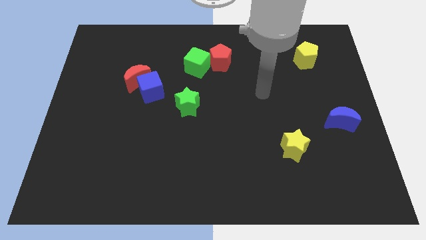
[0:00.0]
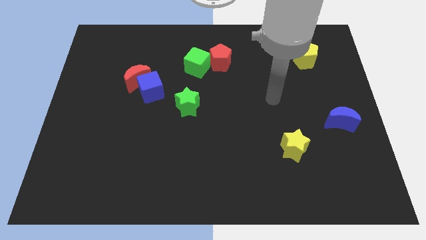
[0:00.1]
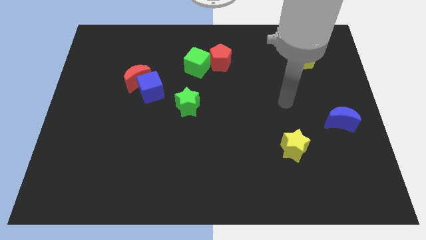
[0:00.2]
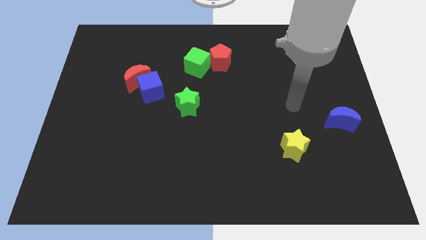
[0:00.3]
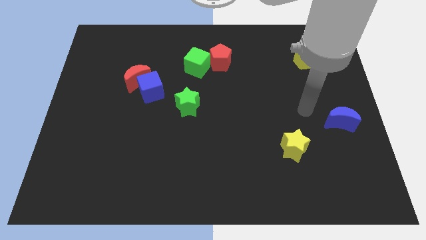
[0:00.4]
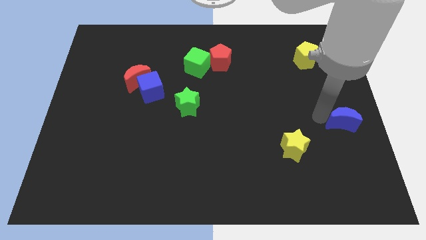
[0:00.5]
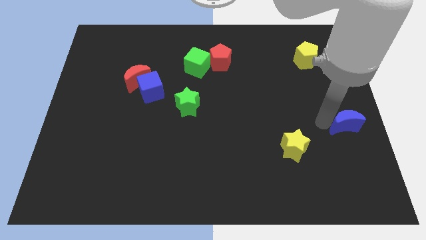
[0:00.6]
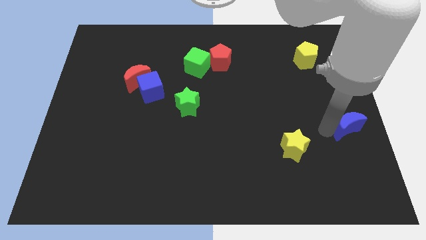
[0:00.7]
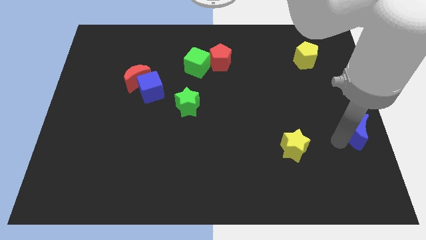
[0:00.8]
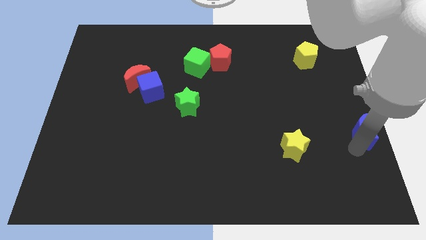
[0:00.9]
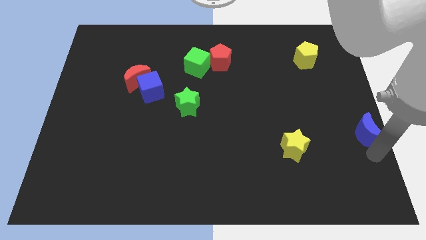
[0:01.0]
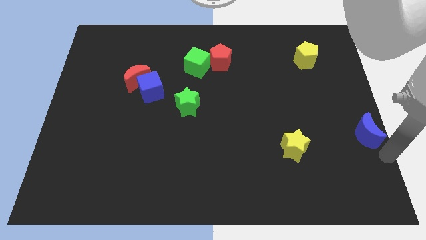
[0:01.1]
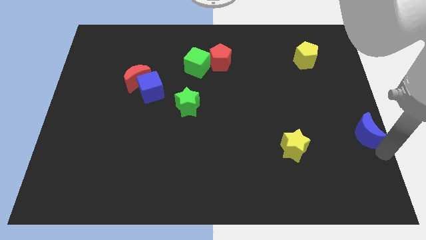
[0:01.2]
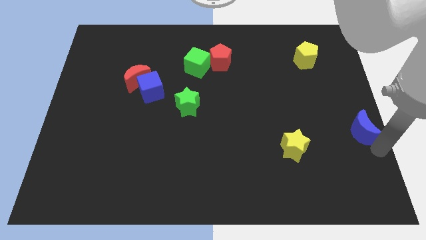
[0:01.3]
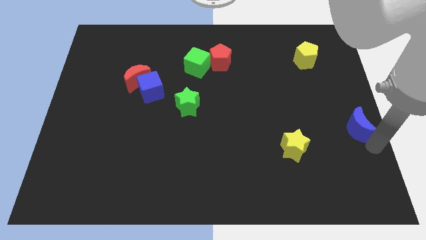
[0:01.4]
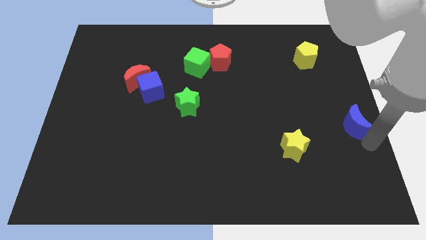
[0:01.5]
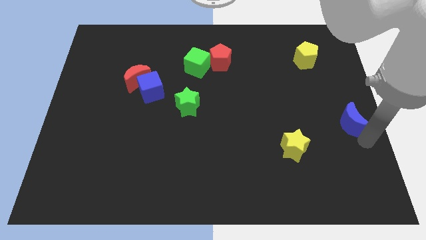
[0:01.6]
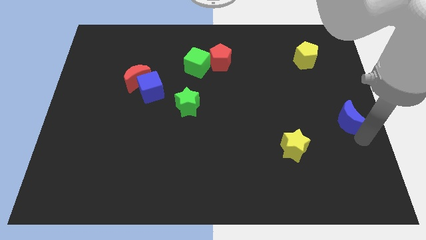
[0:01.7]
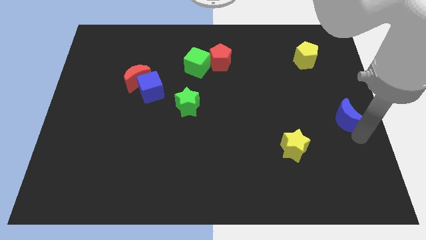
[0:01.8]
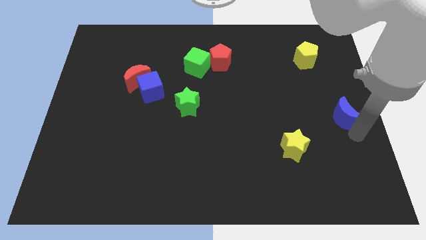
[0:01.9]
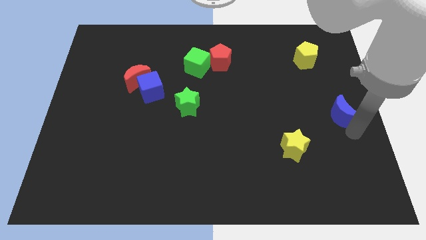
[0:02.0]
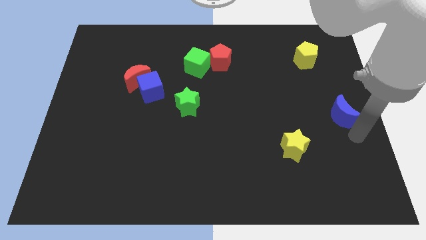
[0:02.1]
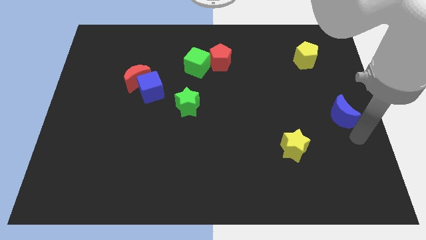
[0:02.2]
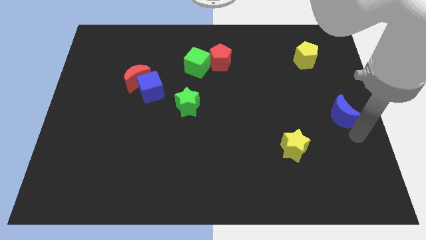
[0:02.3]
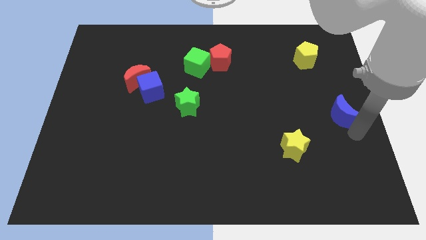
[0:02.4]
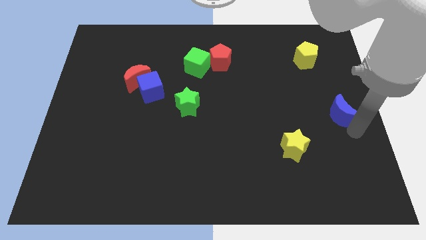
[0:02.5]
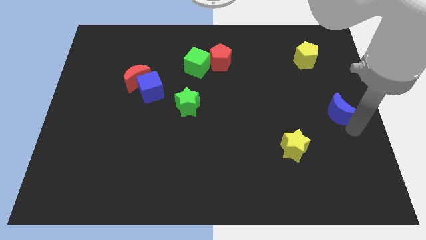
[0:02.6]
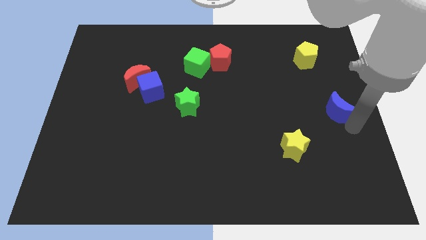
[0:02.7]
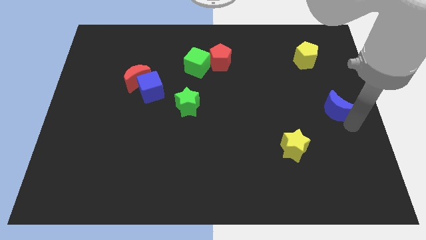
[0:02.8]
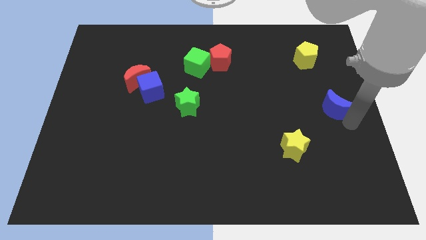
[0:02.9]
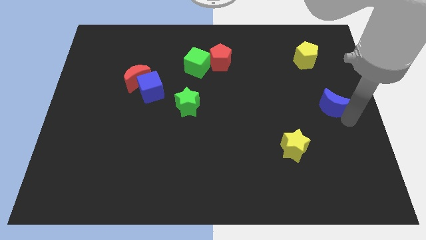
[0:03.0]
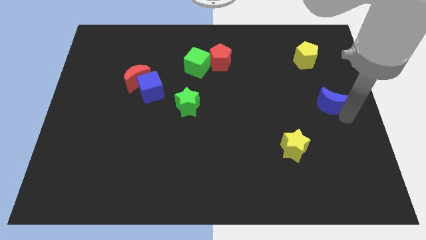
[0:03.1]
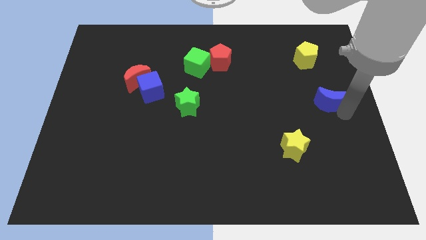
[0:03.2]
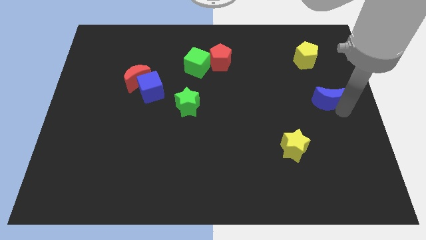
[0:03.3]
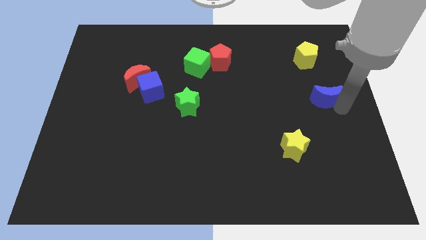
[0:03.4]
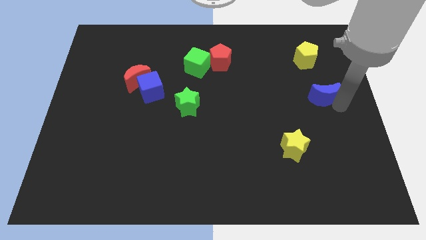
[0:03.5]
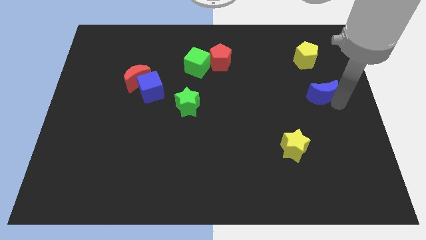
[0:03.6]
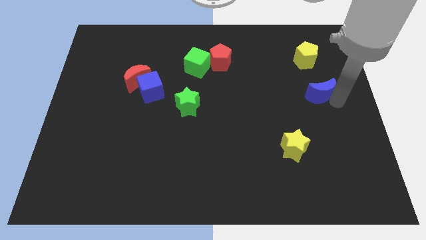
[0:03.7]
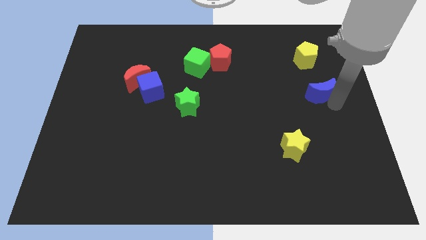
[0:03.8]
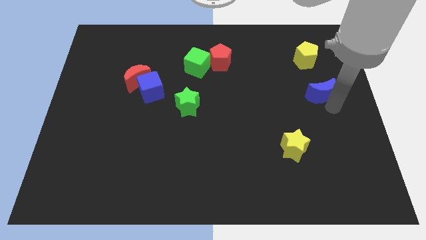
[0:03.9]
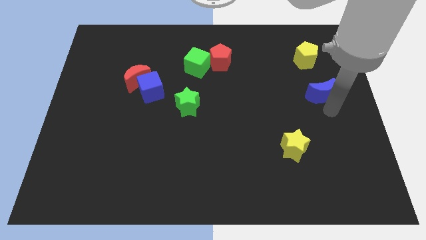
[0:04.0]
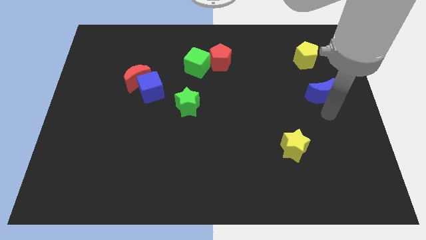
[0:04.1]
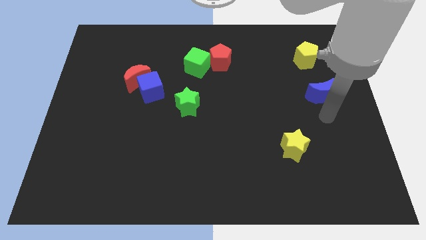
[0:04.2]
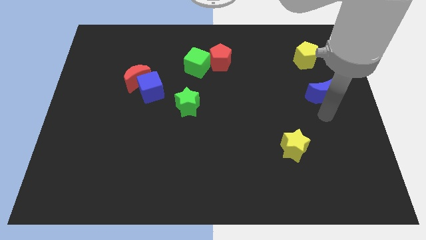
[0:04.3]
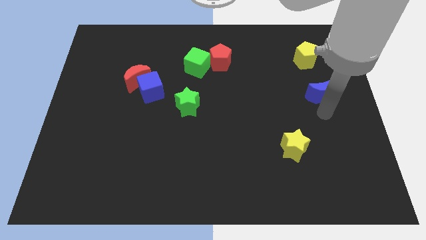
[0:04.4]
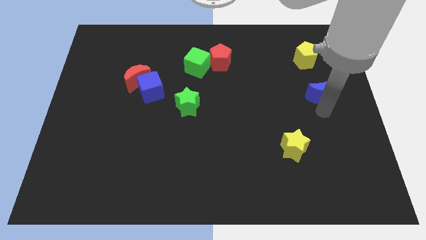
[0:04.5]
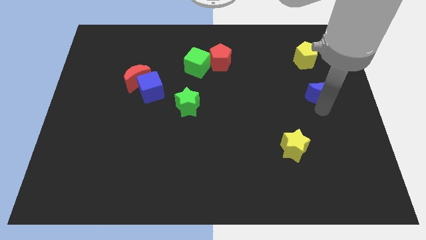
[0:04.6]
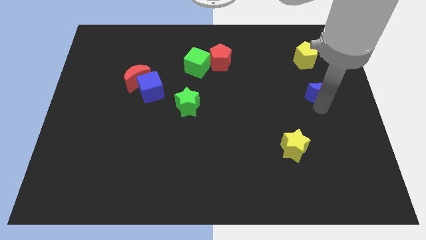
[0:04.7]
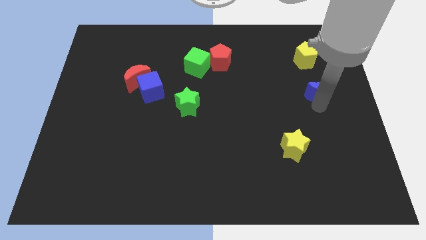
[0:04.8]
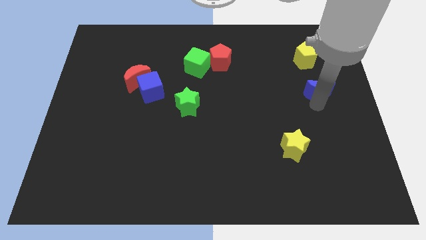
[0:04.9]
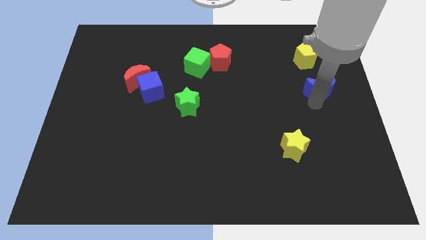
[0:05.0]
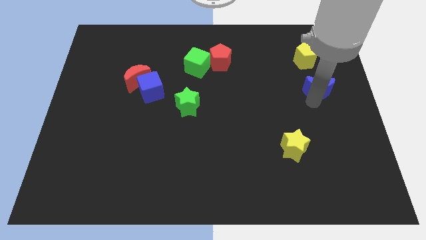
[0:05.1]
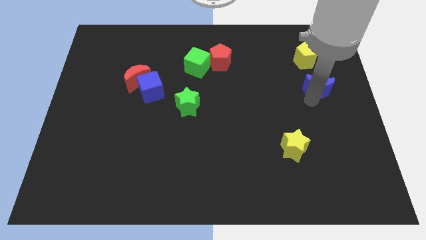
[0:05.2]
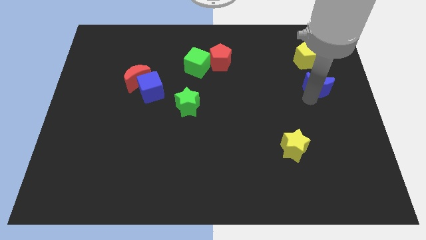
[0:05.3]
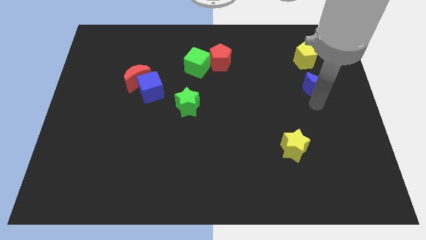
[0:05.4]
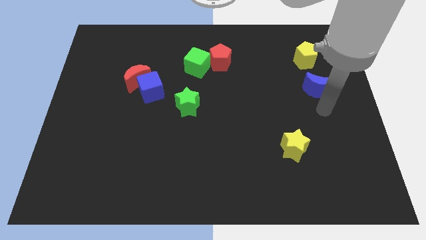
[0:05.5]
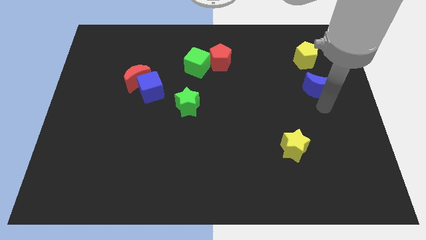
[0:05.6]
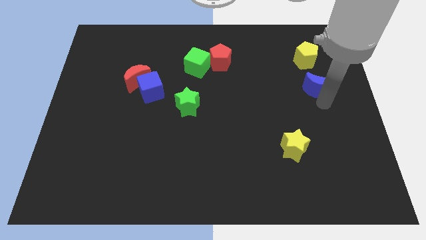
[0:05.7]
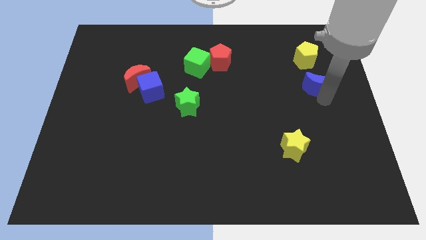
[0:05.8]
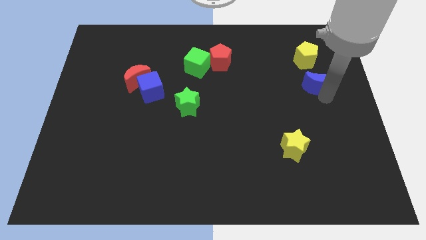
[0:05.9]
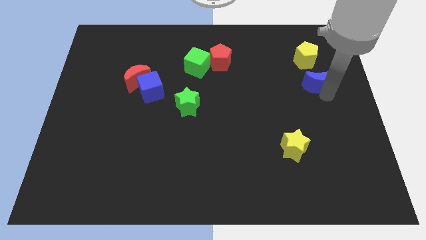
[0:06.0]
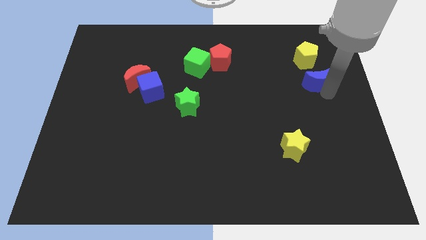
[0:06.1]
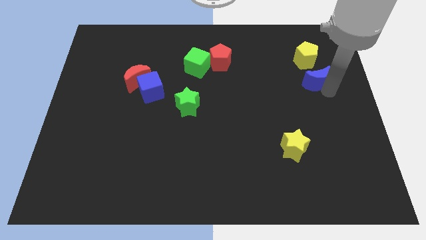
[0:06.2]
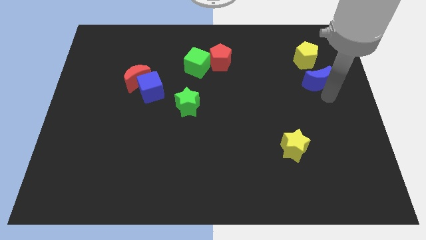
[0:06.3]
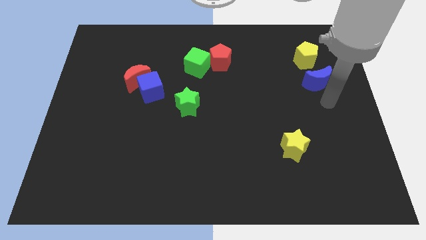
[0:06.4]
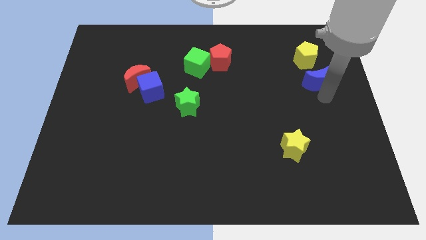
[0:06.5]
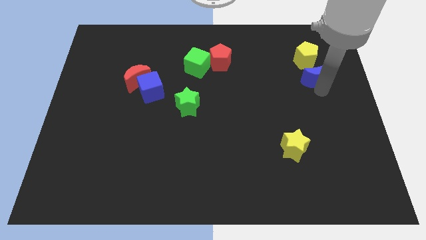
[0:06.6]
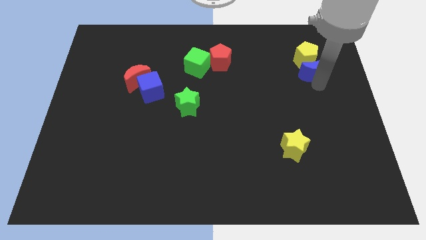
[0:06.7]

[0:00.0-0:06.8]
put the blue moon next to the yellow pentagon
